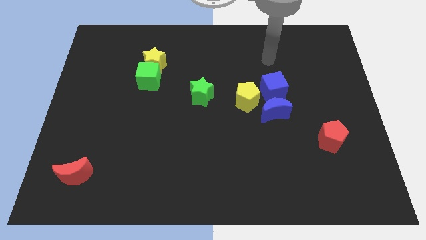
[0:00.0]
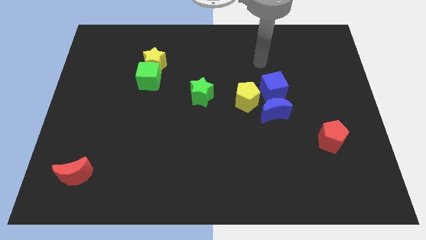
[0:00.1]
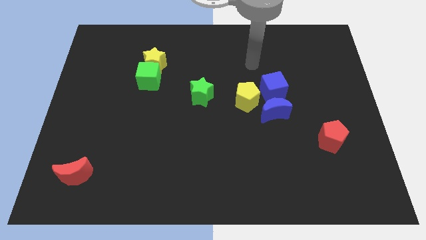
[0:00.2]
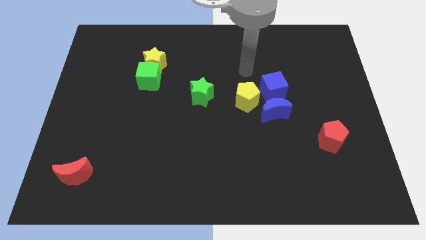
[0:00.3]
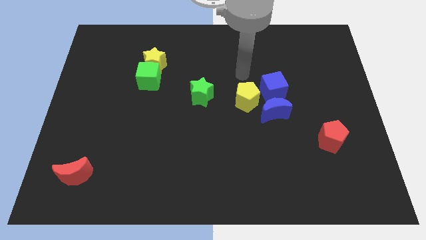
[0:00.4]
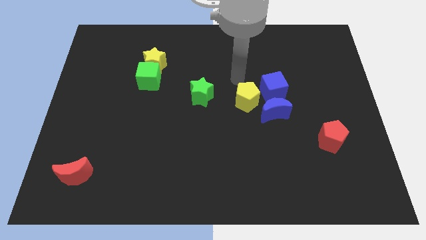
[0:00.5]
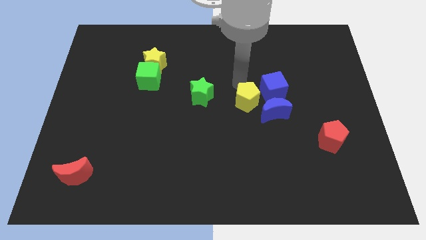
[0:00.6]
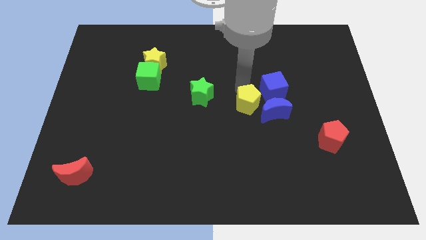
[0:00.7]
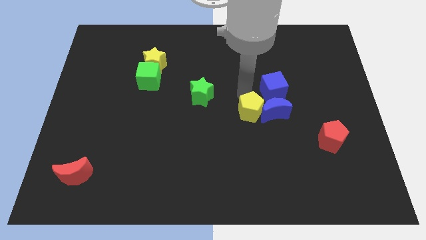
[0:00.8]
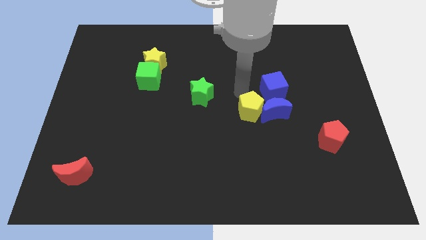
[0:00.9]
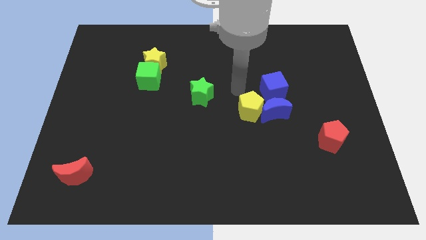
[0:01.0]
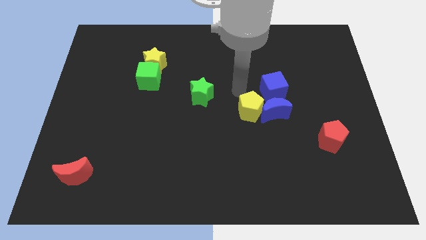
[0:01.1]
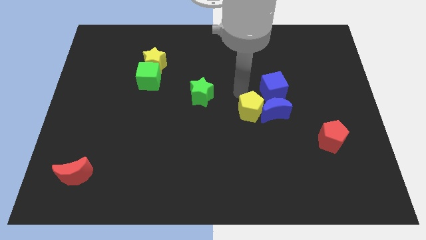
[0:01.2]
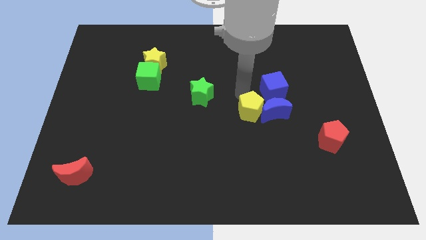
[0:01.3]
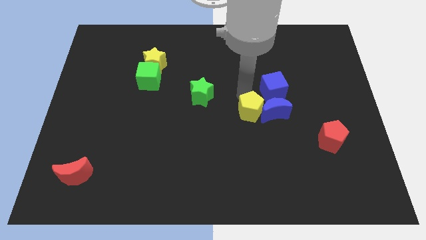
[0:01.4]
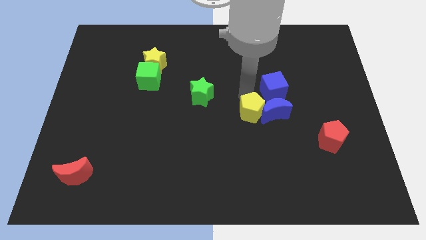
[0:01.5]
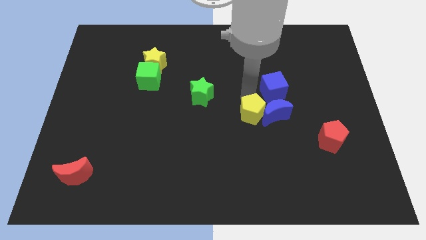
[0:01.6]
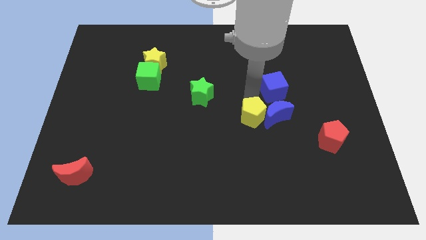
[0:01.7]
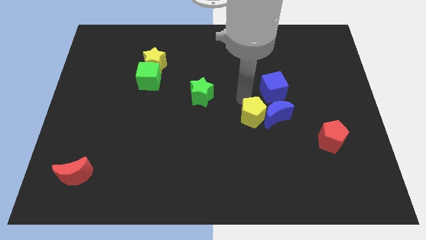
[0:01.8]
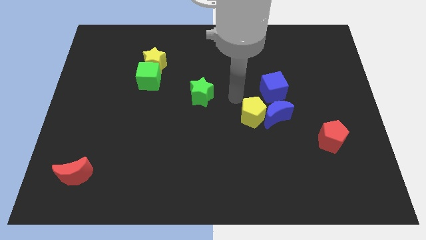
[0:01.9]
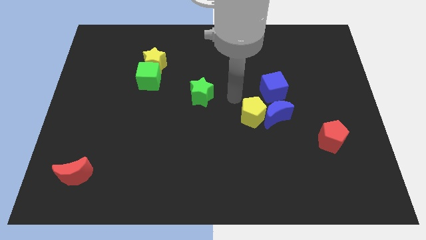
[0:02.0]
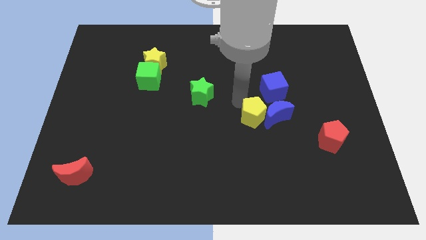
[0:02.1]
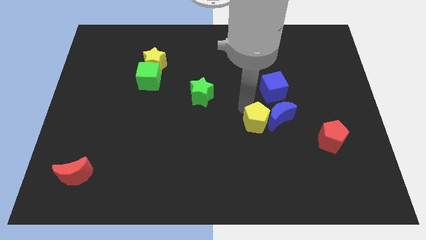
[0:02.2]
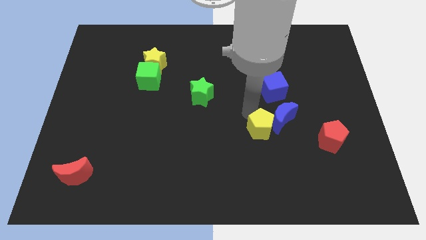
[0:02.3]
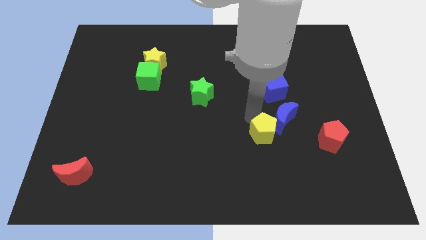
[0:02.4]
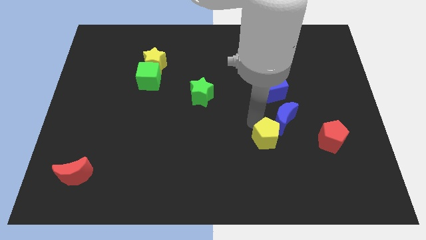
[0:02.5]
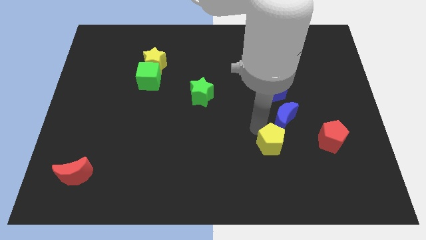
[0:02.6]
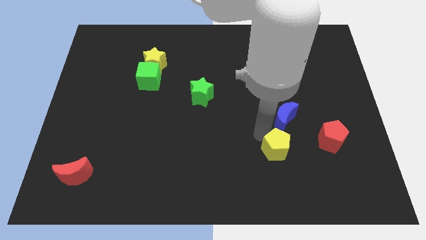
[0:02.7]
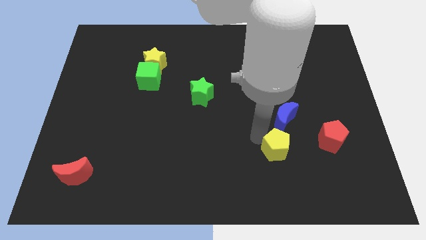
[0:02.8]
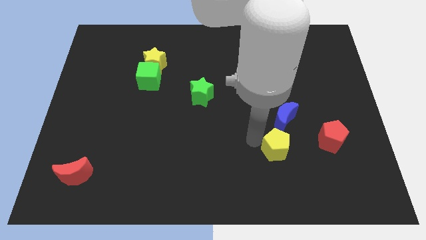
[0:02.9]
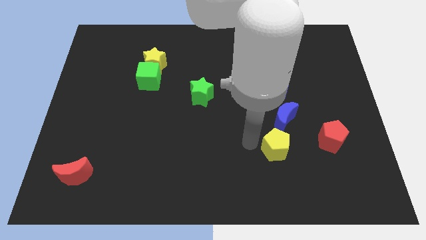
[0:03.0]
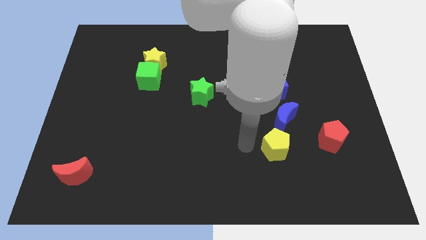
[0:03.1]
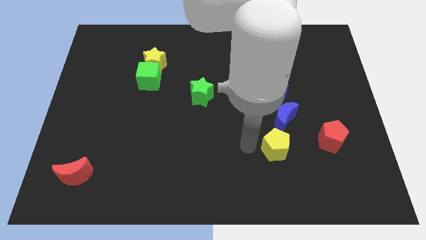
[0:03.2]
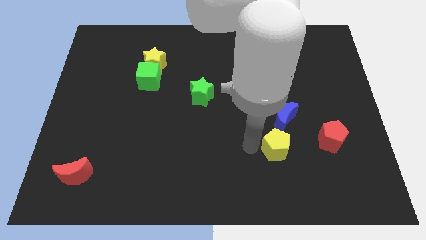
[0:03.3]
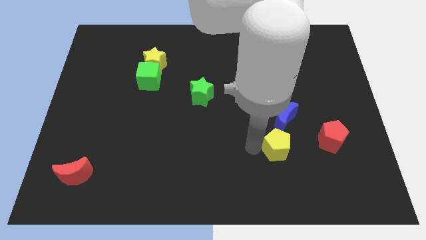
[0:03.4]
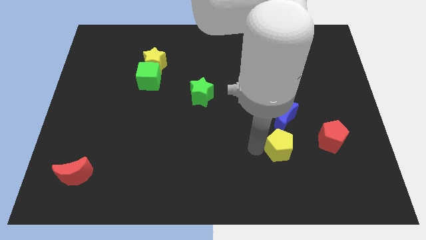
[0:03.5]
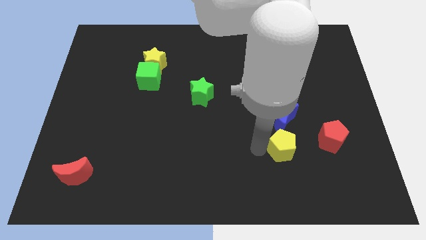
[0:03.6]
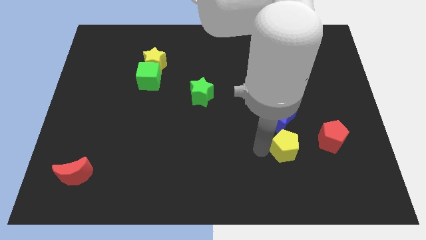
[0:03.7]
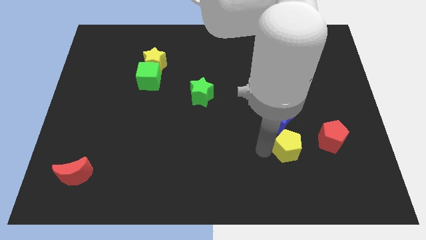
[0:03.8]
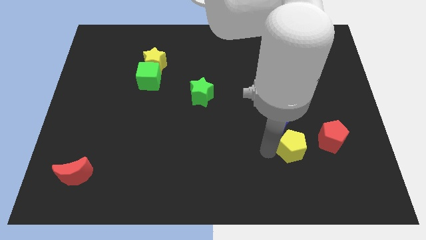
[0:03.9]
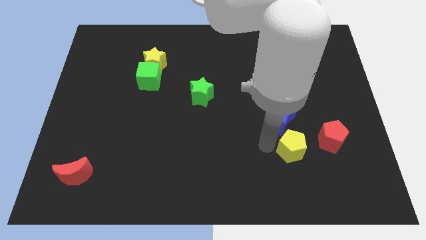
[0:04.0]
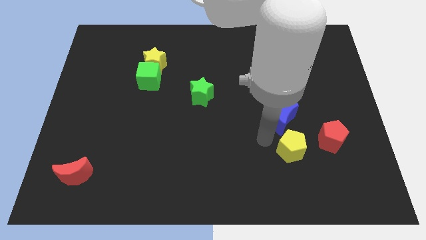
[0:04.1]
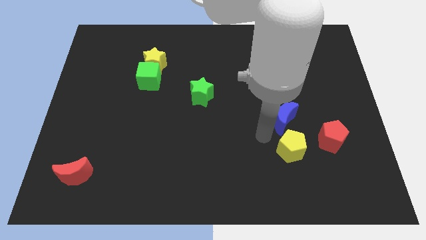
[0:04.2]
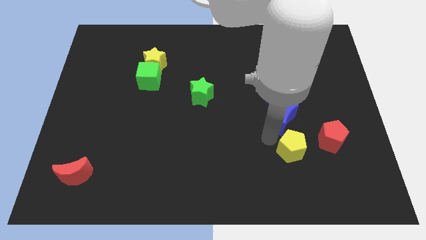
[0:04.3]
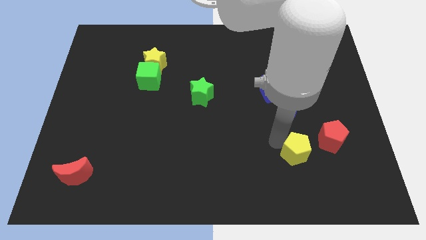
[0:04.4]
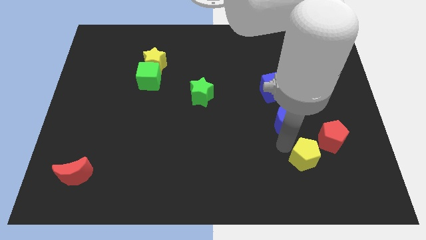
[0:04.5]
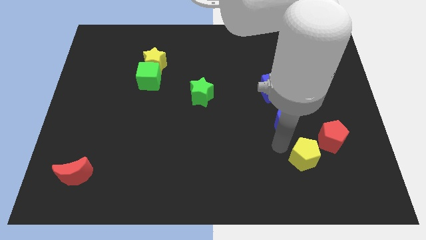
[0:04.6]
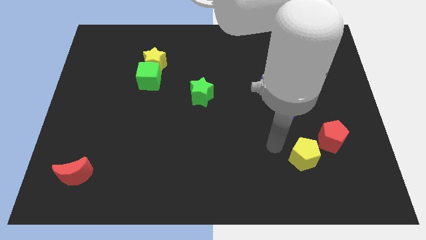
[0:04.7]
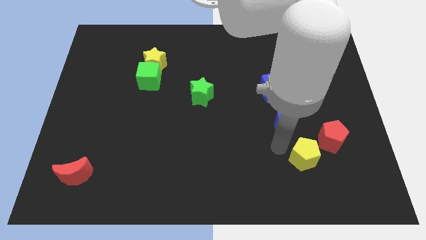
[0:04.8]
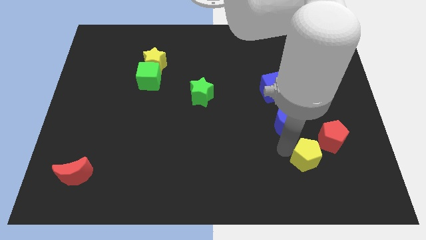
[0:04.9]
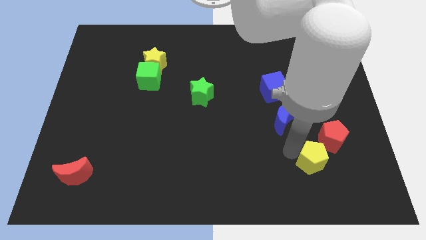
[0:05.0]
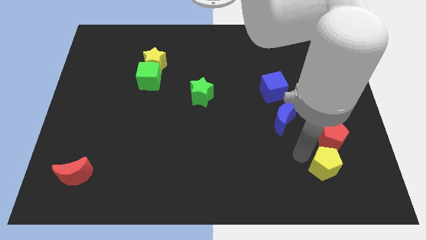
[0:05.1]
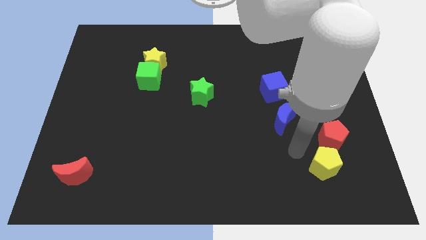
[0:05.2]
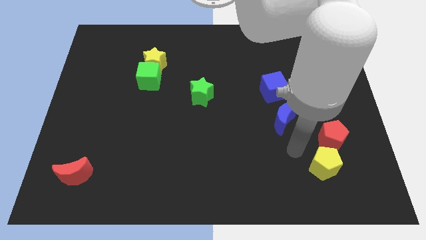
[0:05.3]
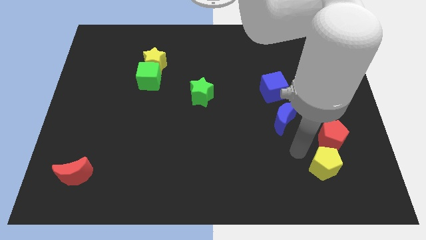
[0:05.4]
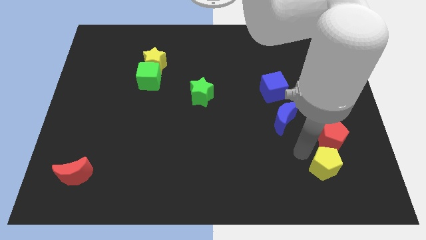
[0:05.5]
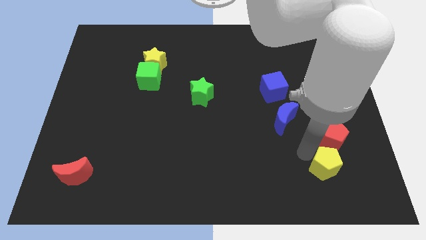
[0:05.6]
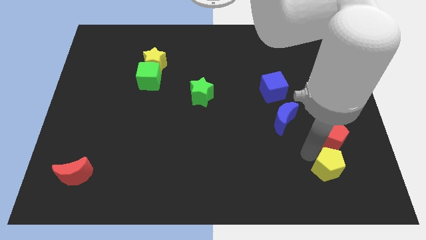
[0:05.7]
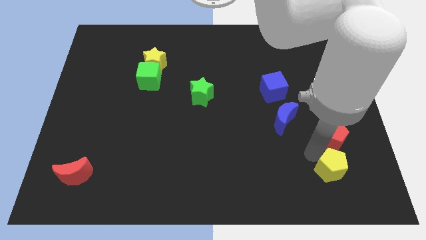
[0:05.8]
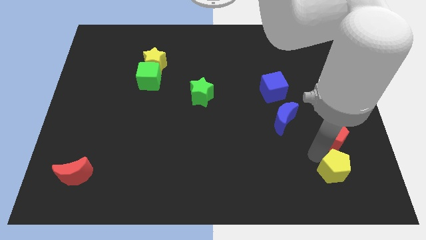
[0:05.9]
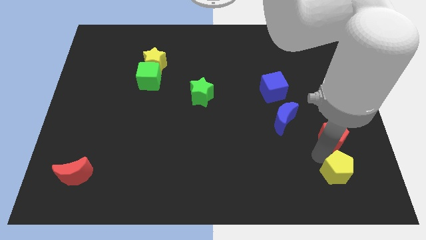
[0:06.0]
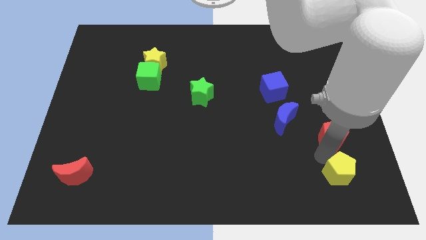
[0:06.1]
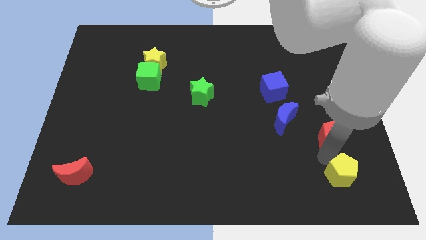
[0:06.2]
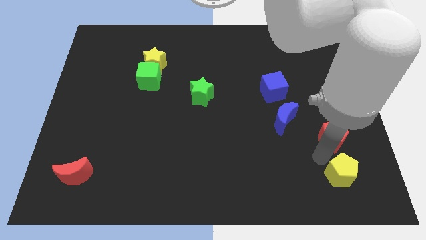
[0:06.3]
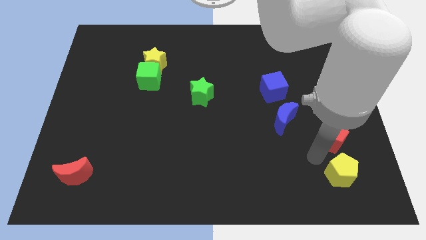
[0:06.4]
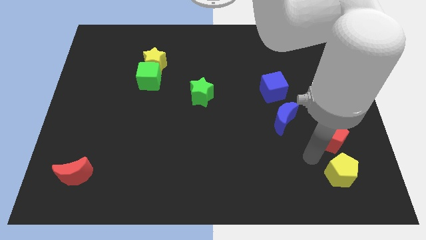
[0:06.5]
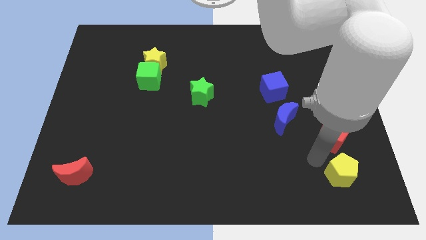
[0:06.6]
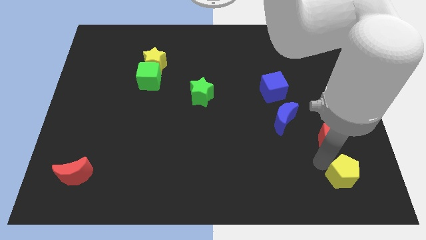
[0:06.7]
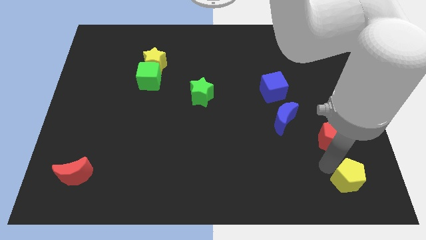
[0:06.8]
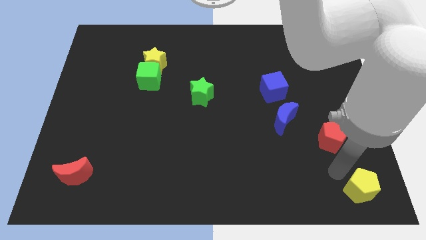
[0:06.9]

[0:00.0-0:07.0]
slide the yellow pentagon to the bottom right of the board

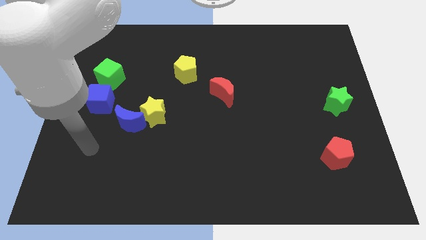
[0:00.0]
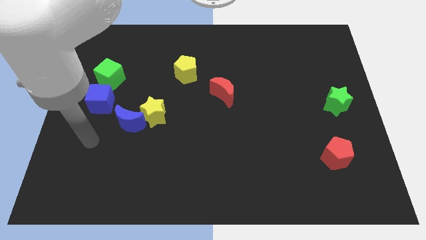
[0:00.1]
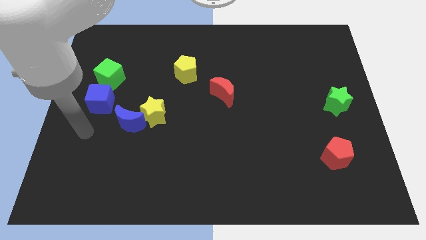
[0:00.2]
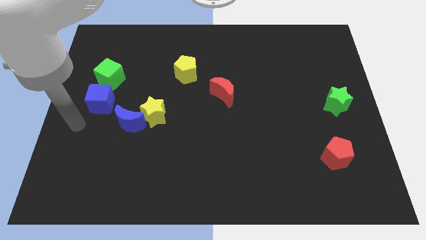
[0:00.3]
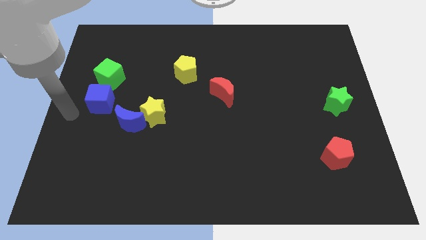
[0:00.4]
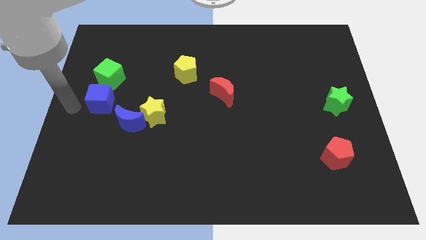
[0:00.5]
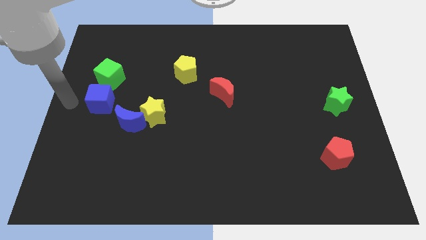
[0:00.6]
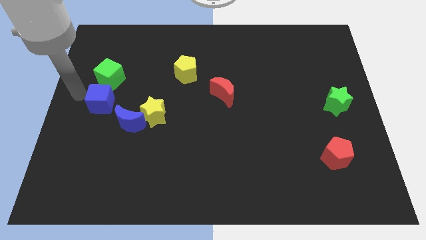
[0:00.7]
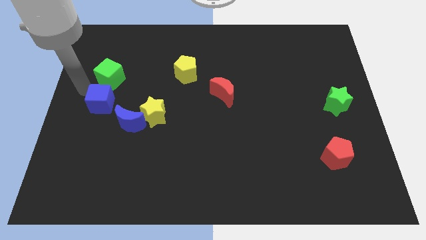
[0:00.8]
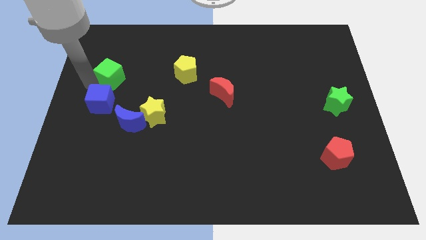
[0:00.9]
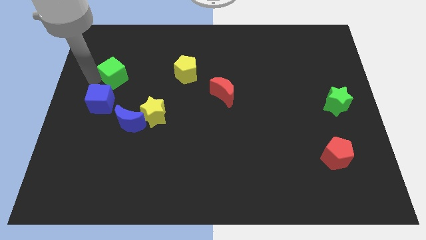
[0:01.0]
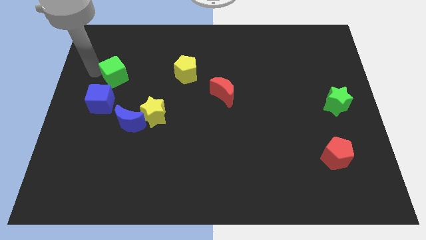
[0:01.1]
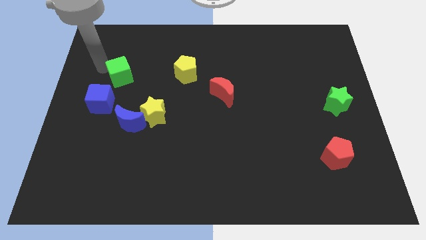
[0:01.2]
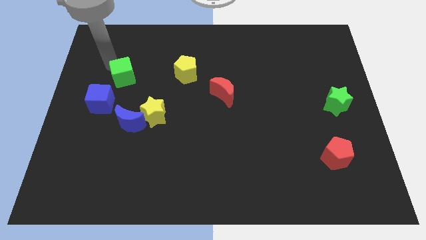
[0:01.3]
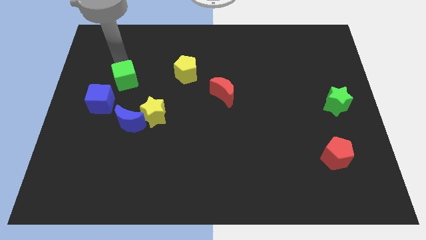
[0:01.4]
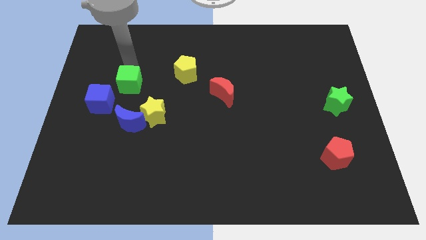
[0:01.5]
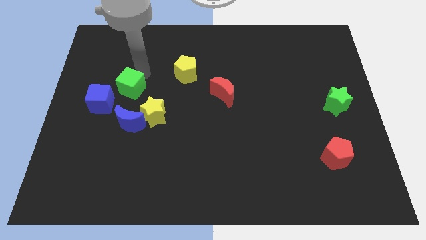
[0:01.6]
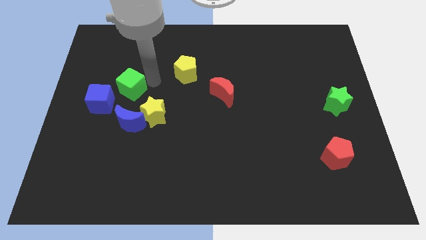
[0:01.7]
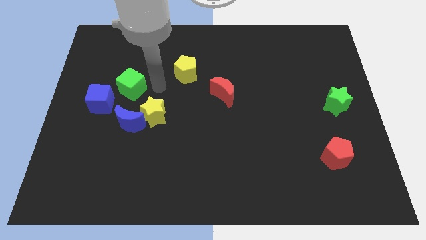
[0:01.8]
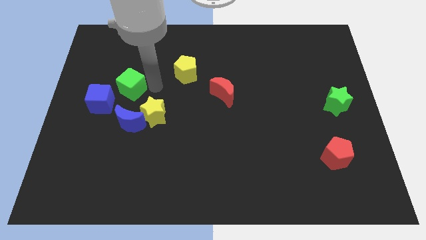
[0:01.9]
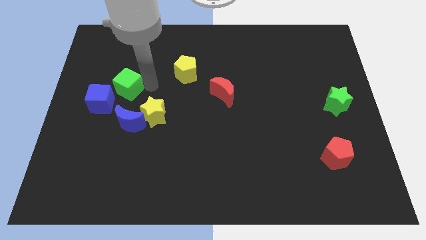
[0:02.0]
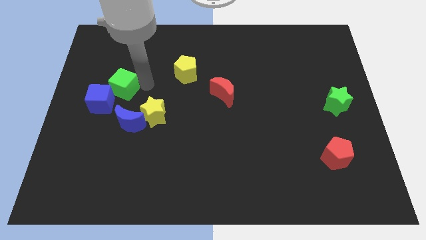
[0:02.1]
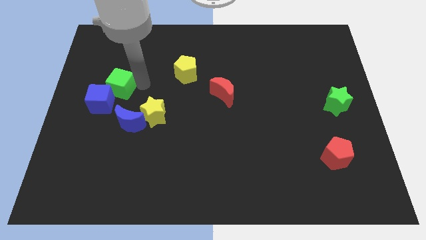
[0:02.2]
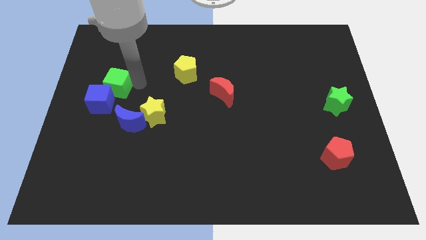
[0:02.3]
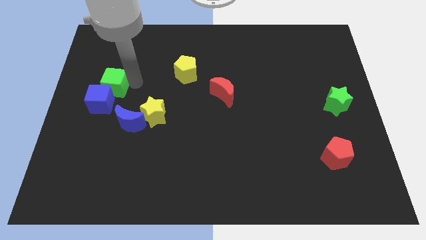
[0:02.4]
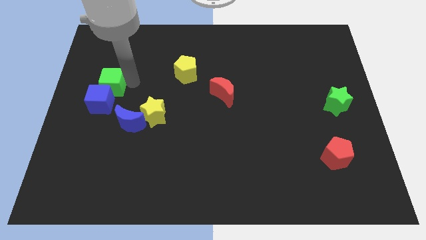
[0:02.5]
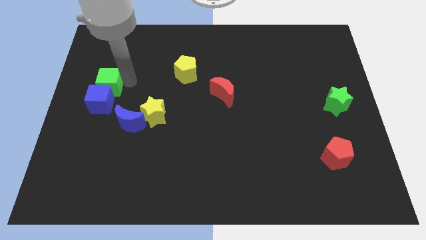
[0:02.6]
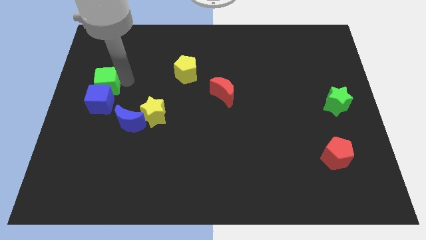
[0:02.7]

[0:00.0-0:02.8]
slide the green cube to the center left
